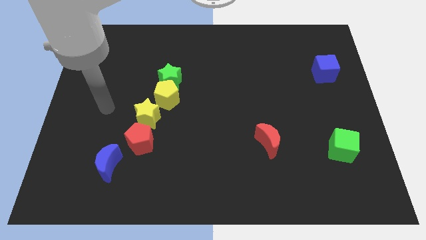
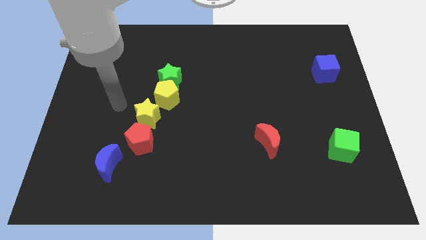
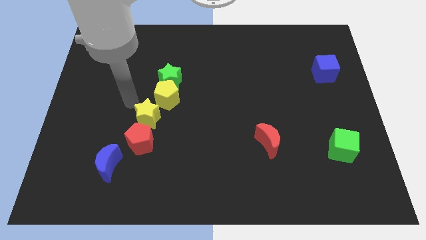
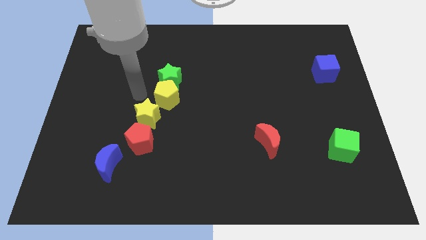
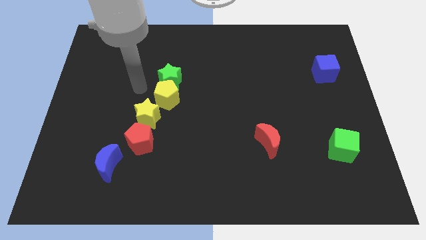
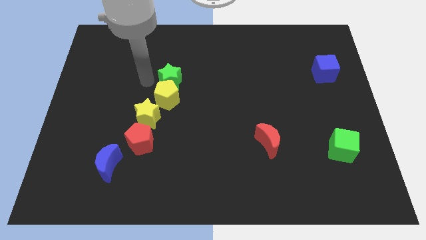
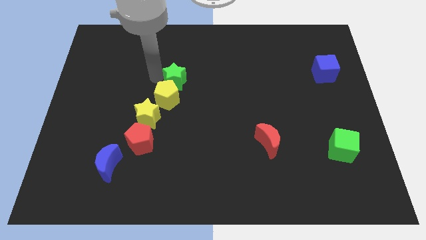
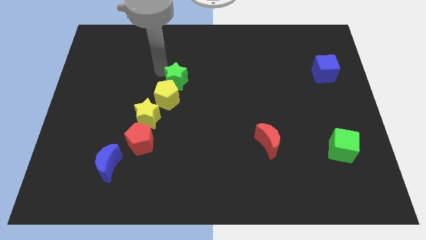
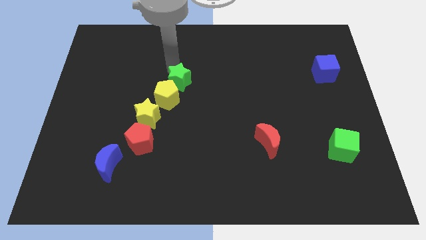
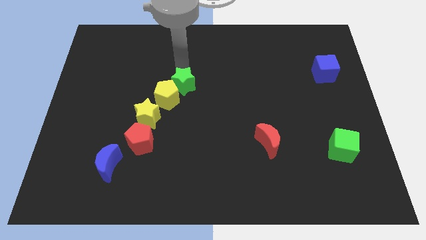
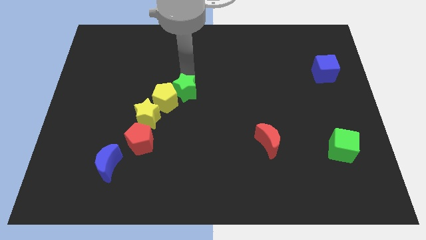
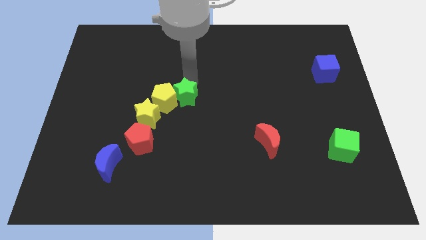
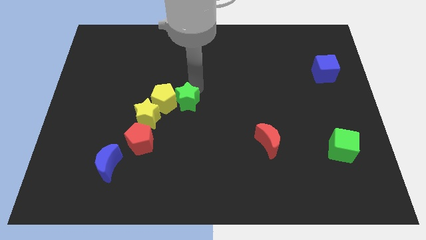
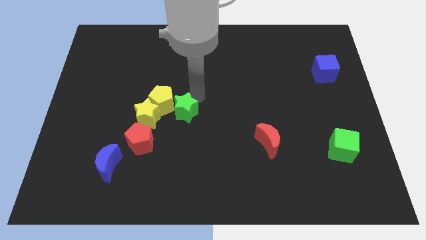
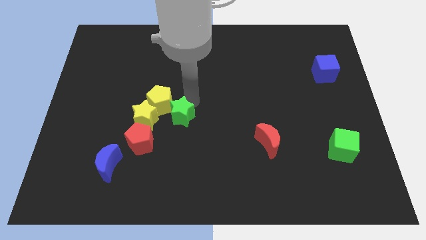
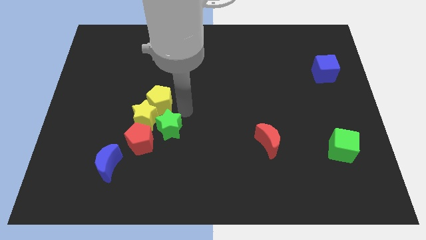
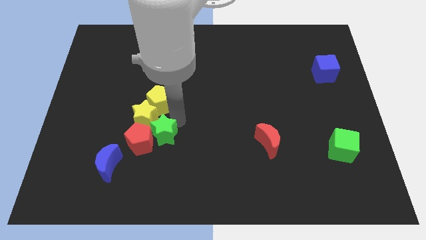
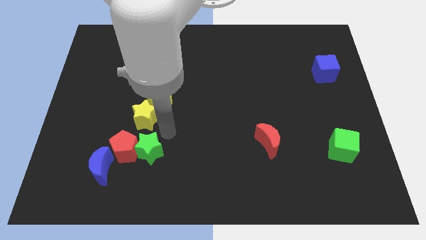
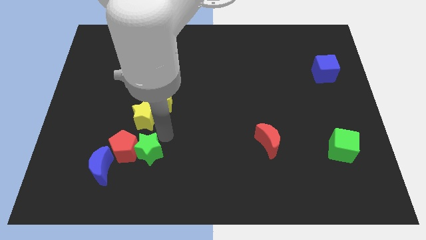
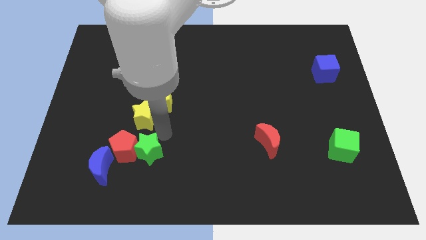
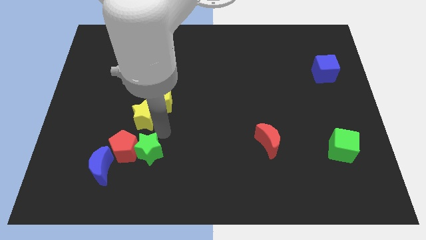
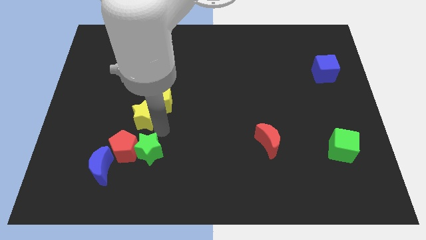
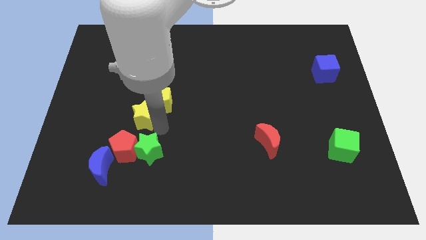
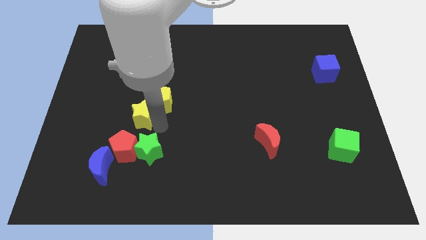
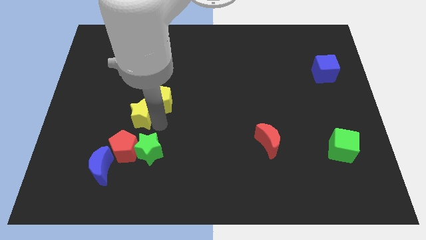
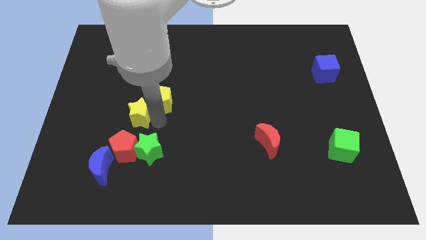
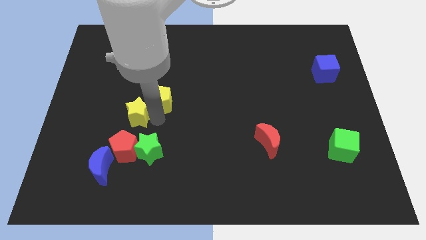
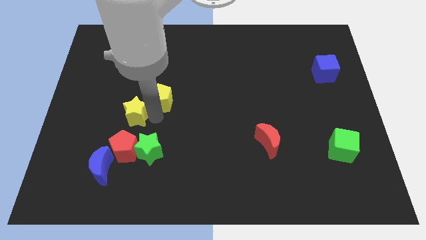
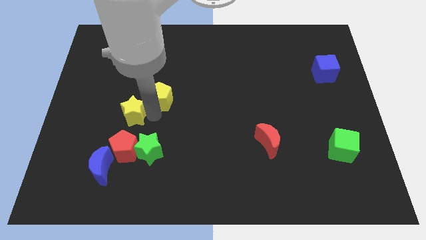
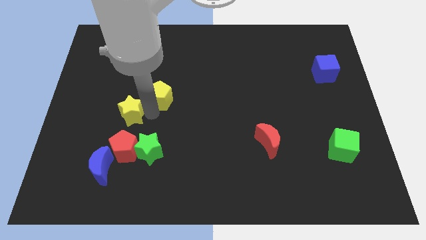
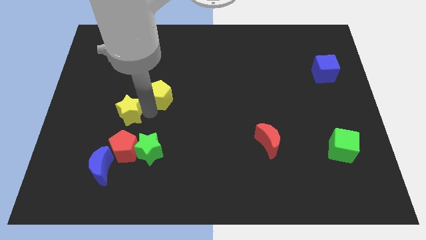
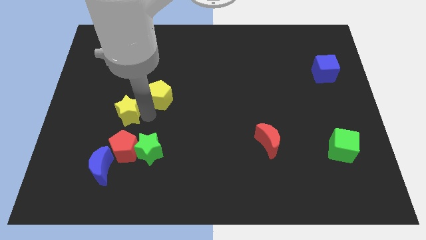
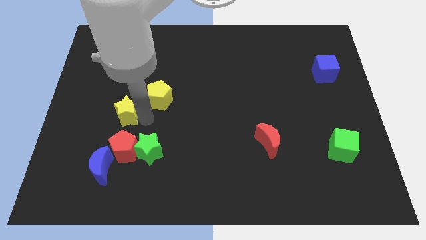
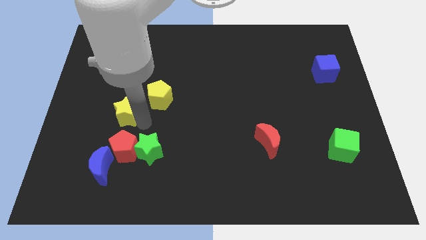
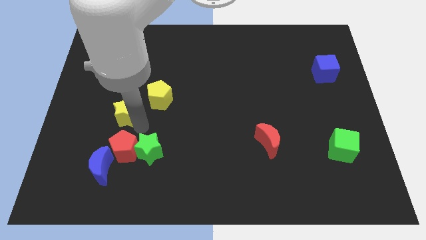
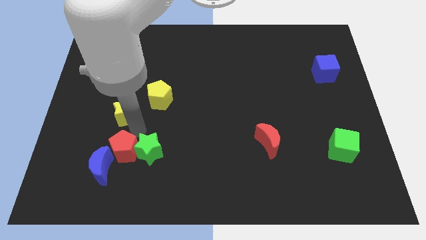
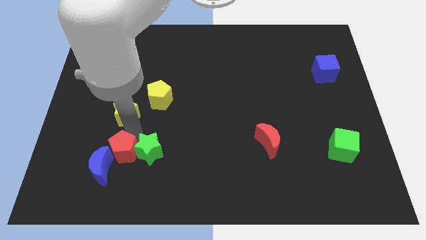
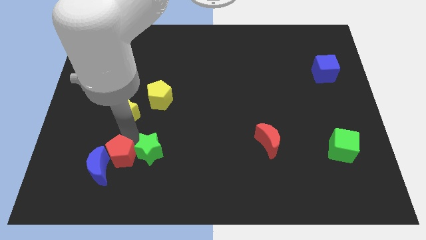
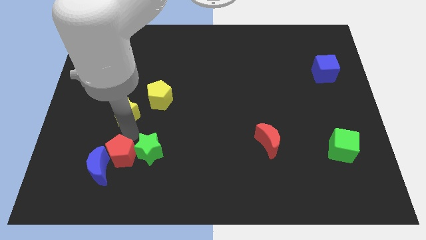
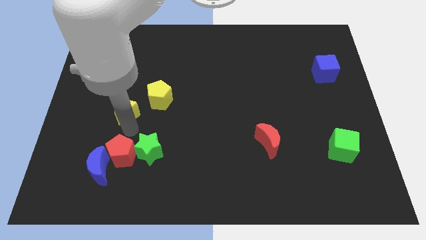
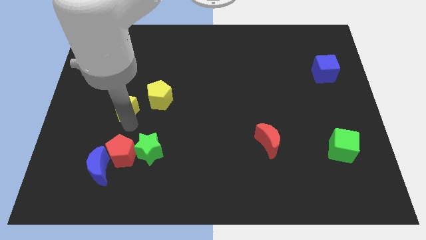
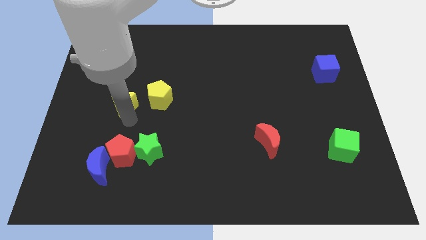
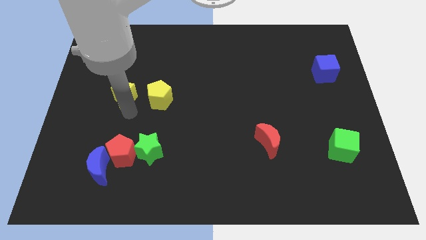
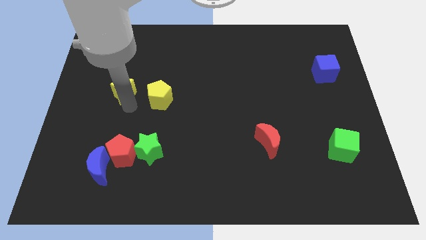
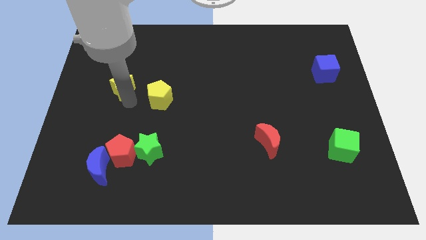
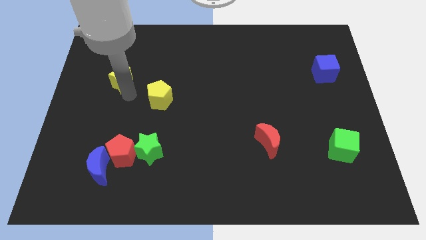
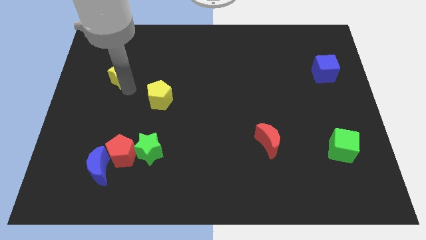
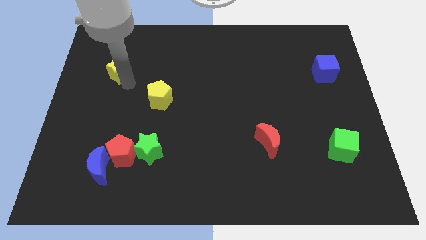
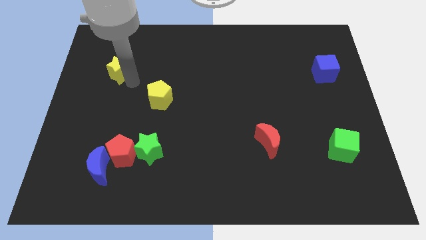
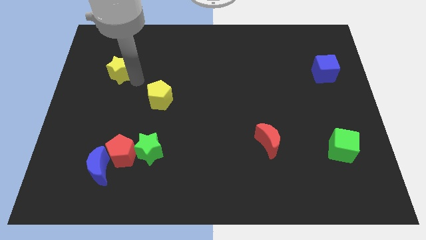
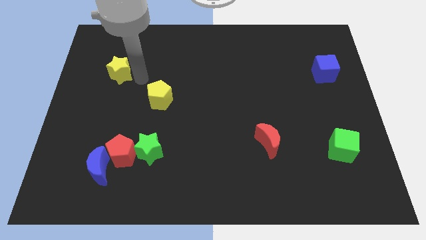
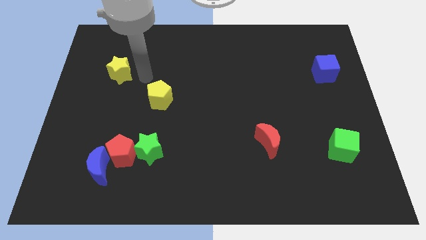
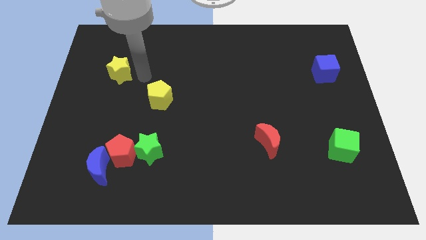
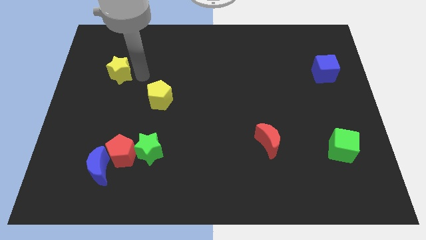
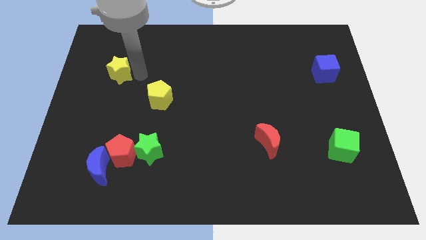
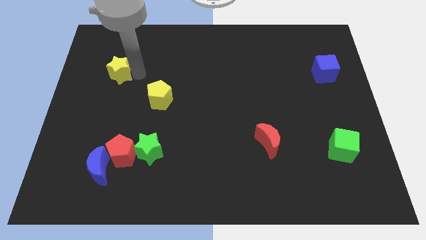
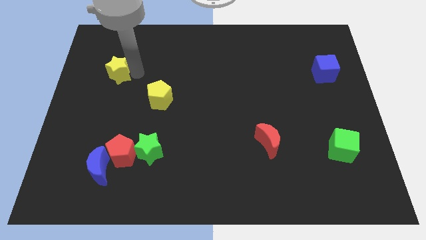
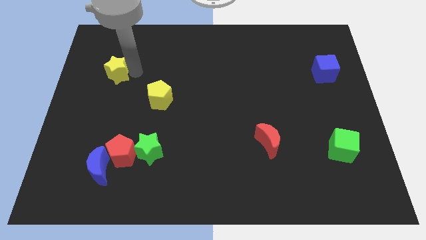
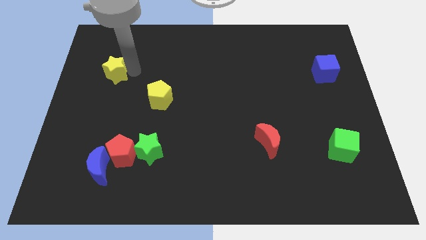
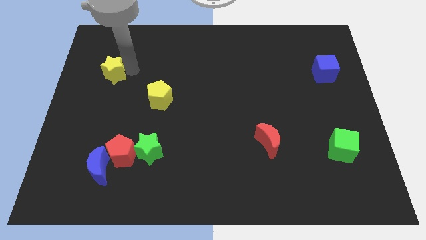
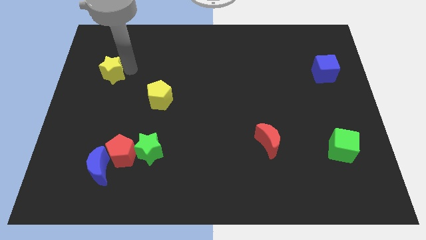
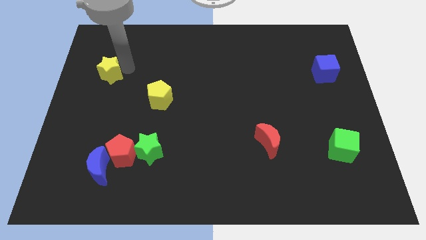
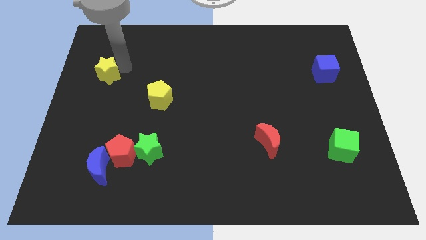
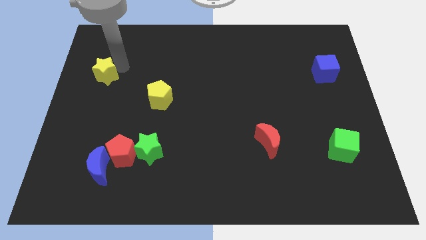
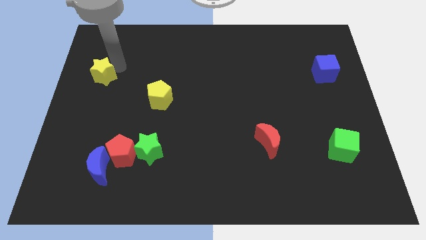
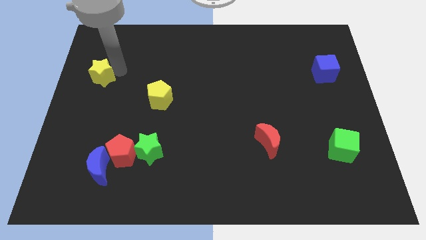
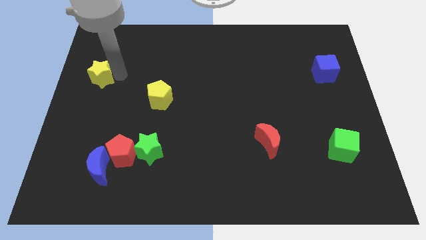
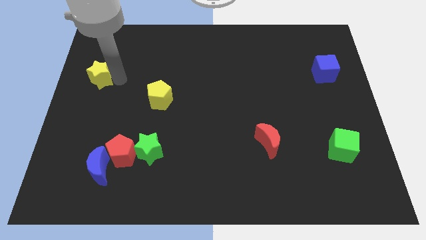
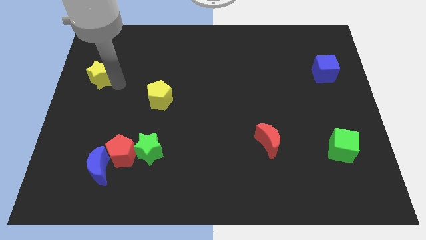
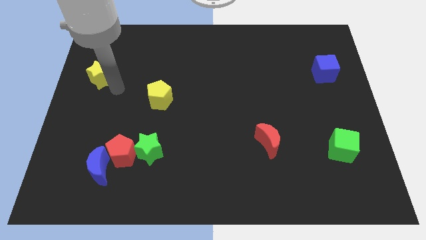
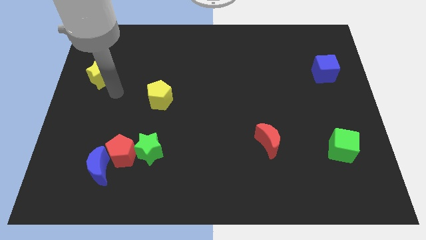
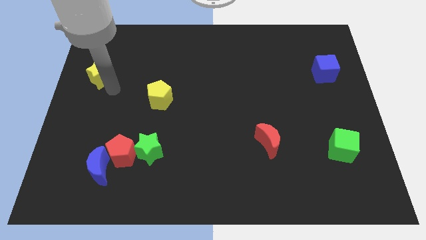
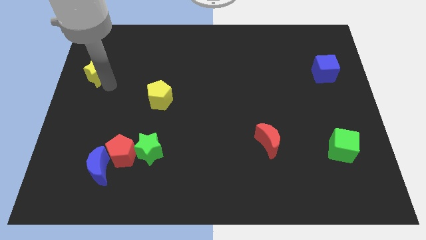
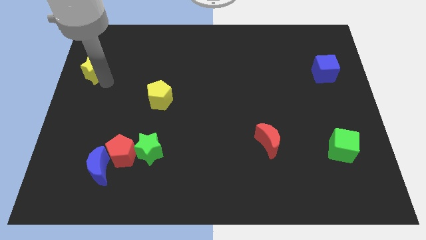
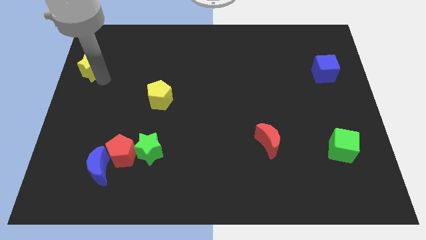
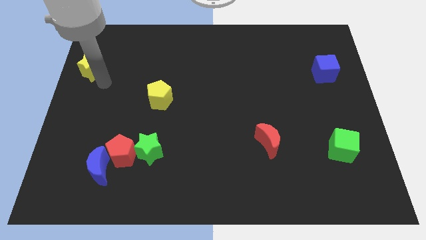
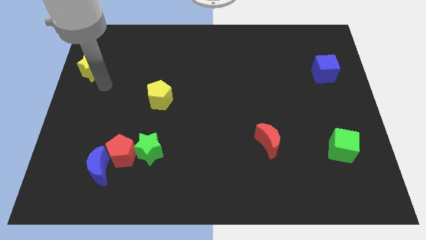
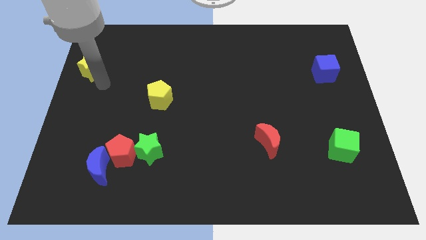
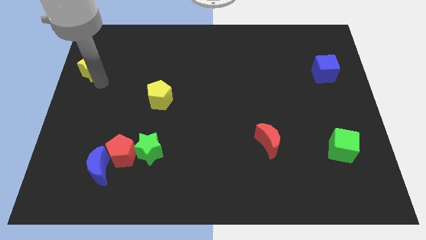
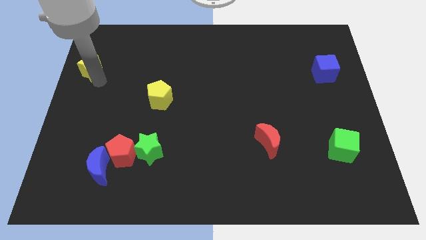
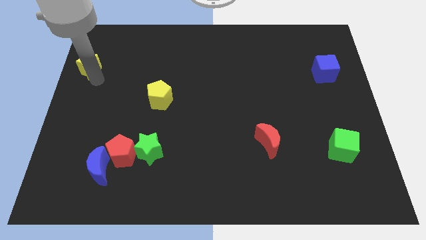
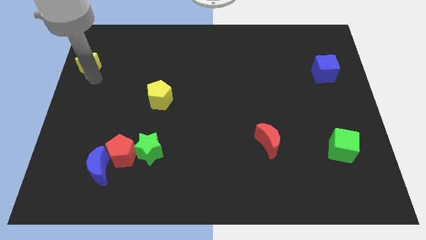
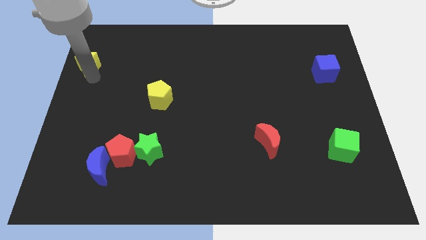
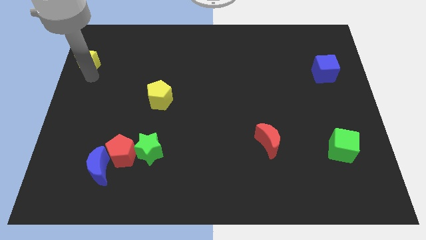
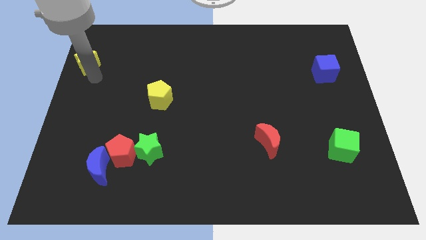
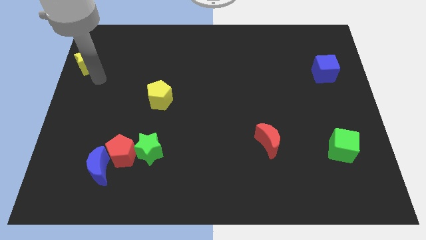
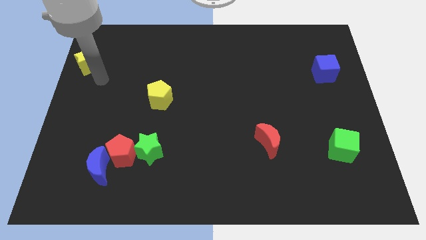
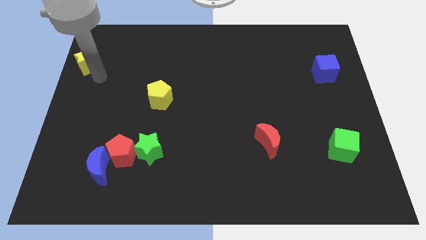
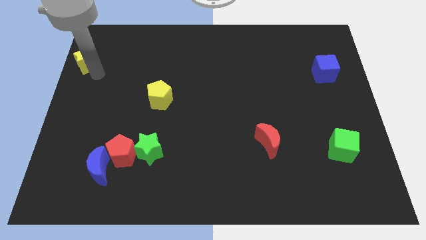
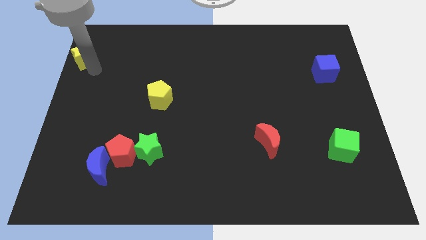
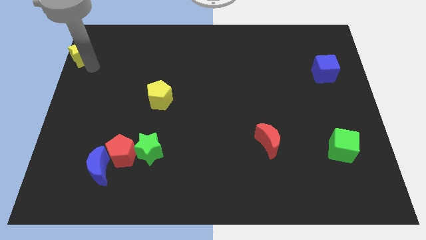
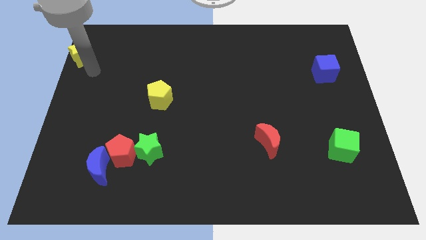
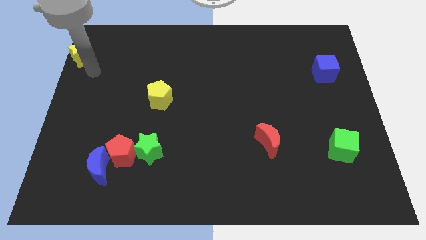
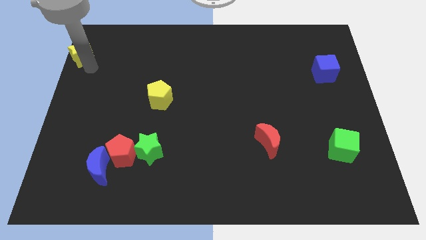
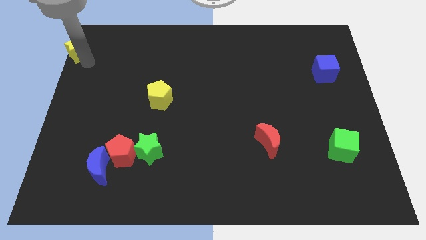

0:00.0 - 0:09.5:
push the yellow star to the top left
